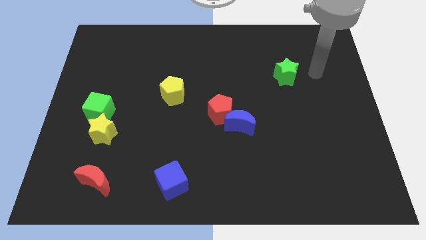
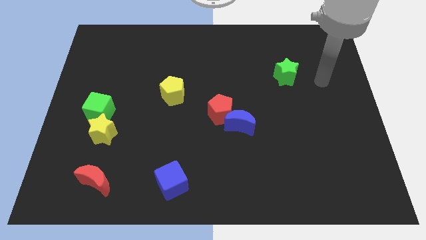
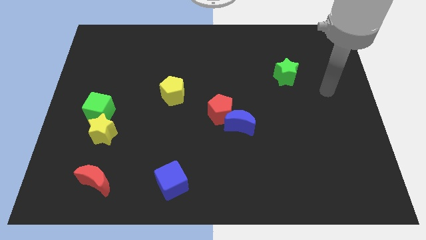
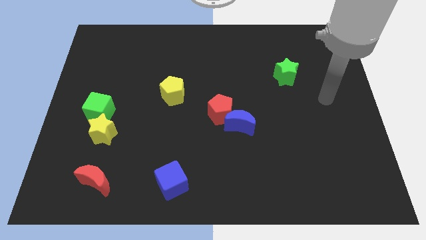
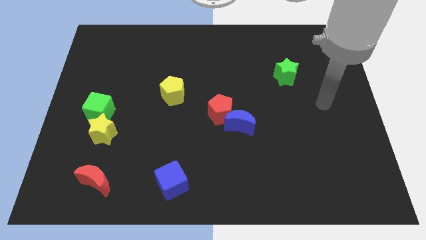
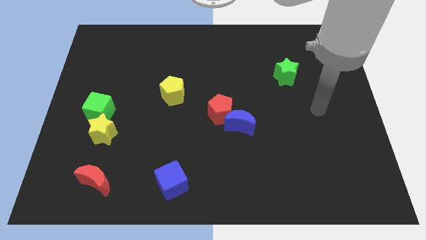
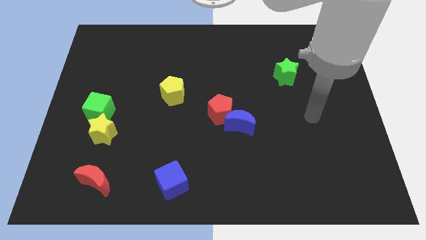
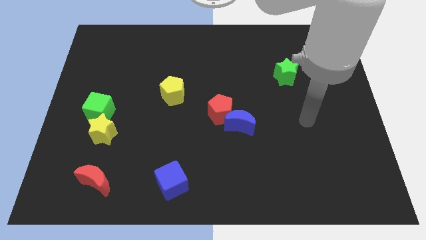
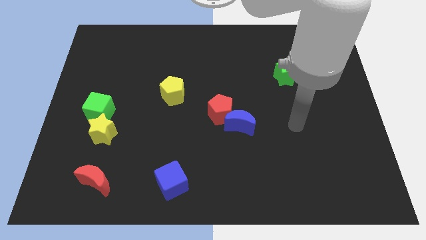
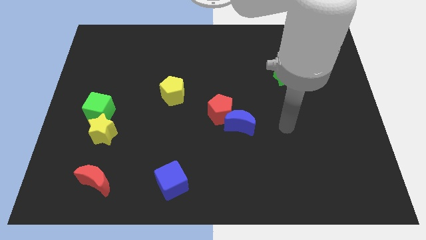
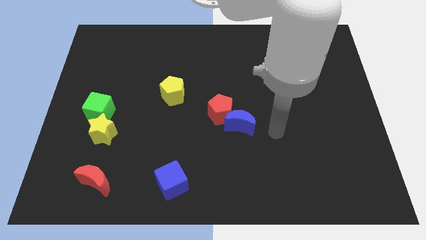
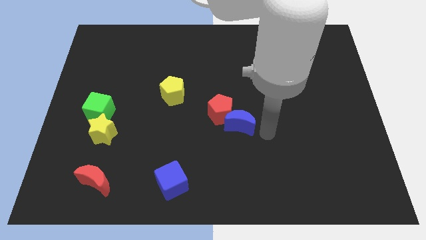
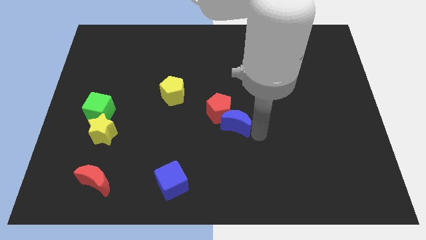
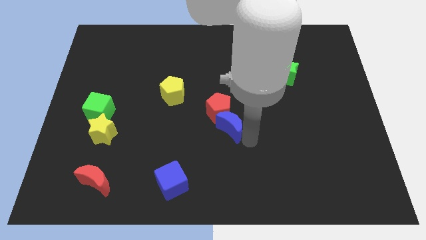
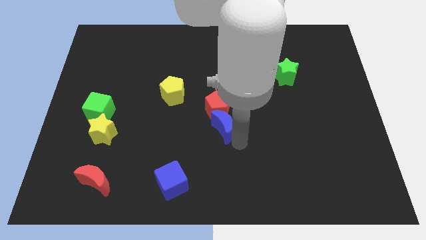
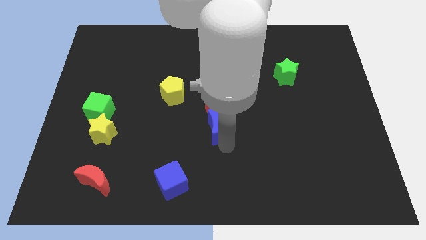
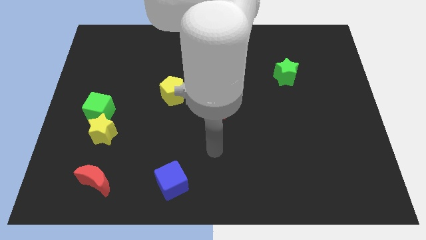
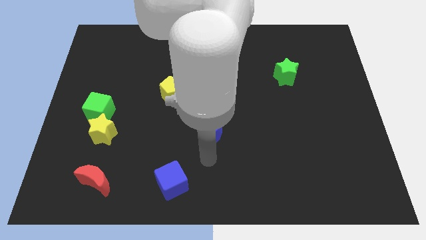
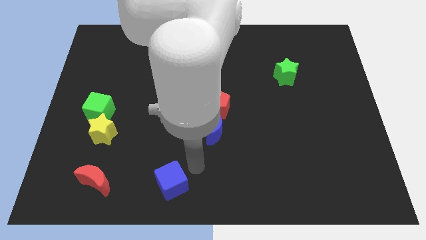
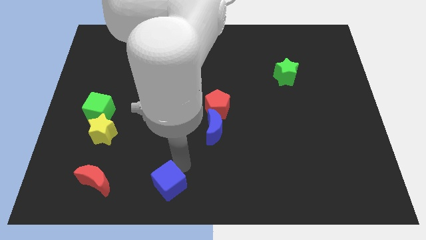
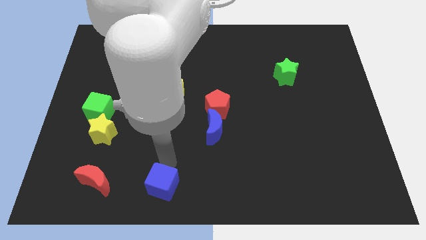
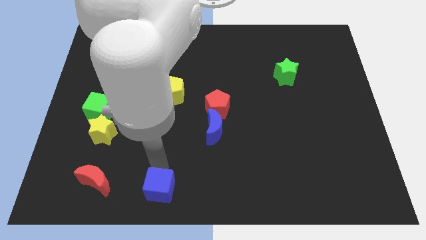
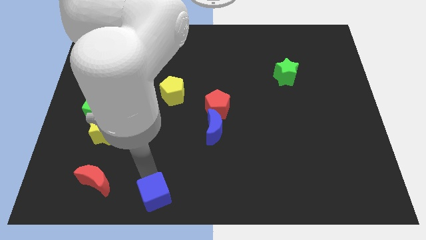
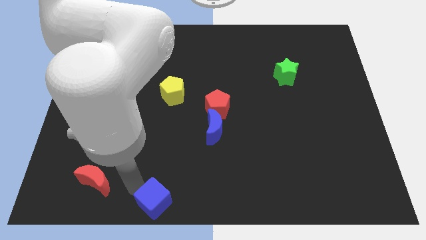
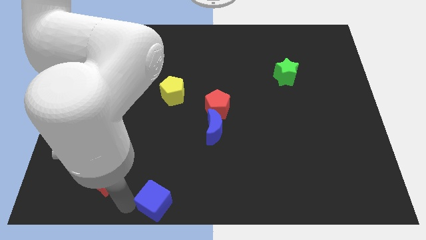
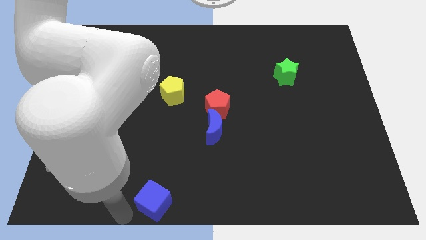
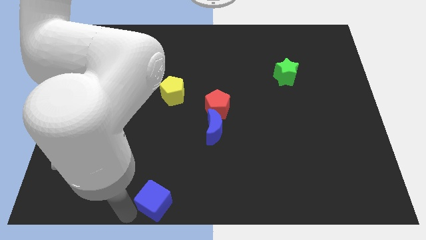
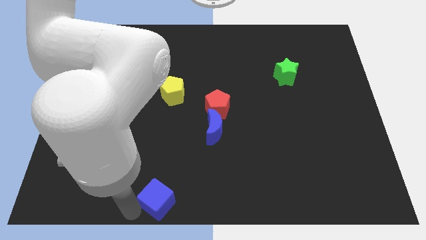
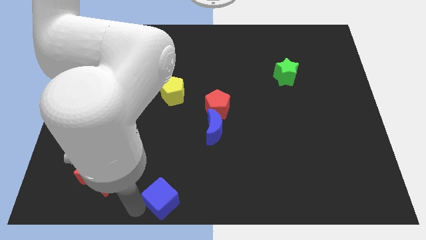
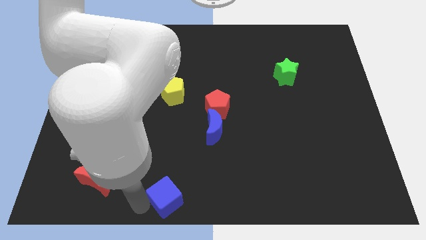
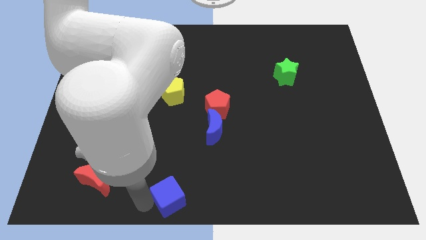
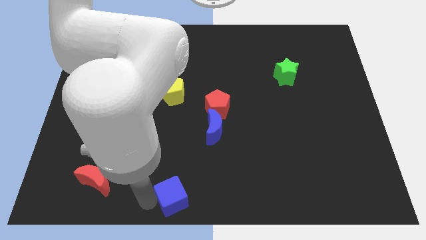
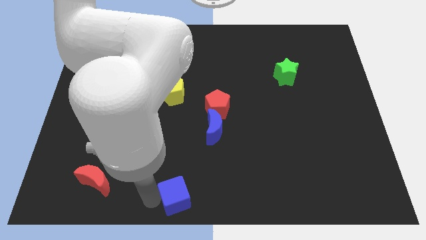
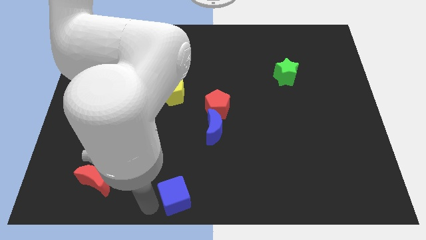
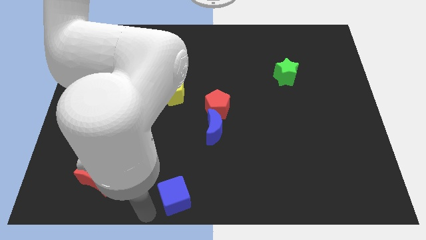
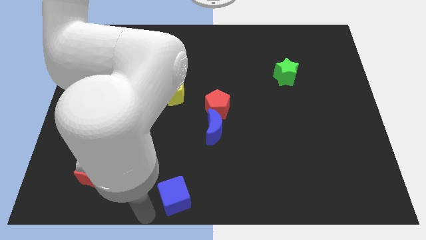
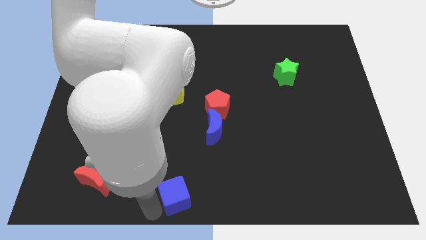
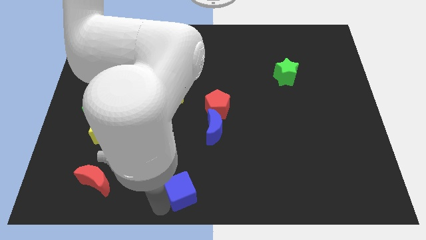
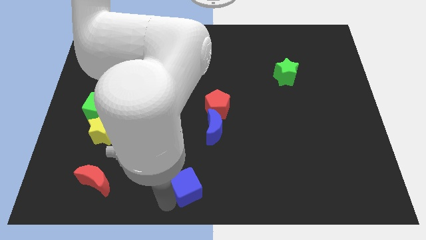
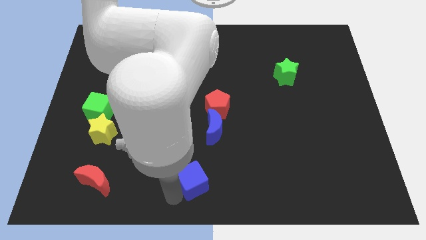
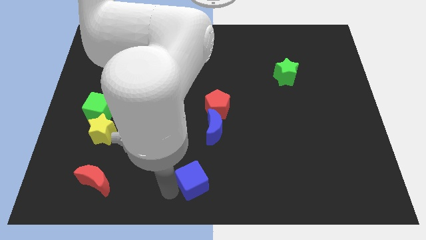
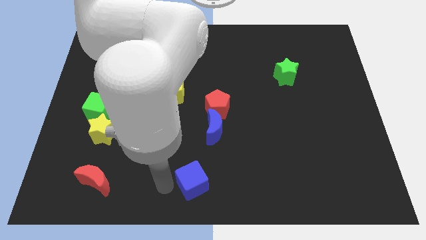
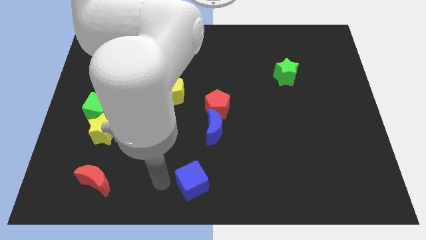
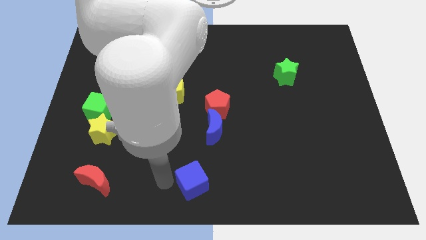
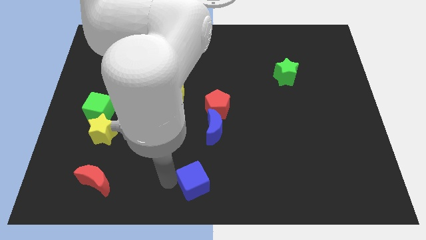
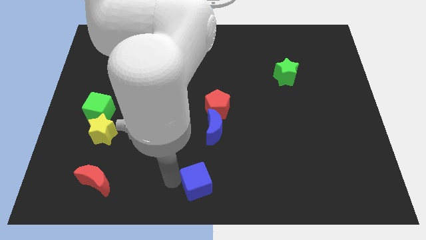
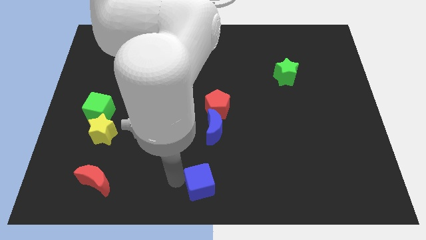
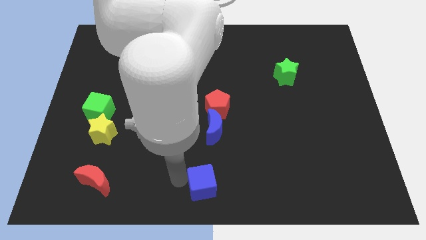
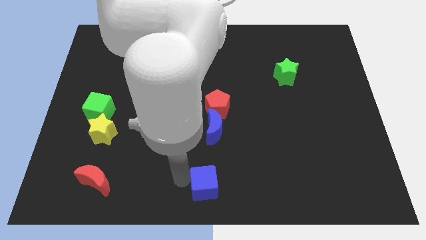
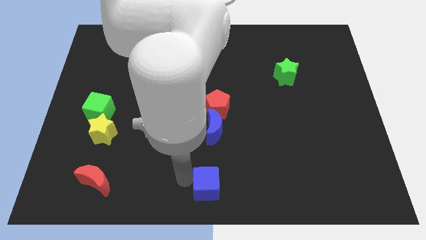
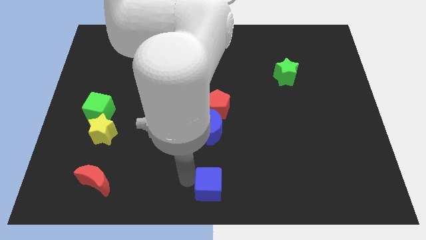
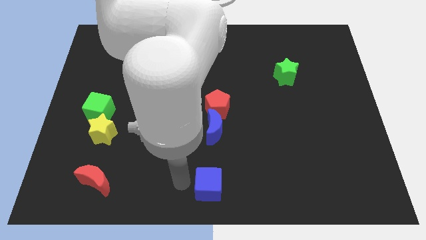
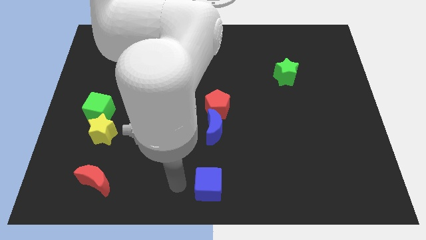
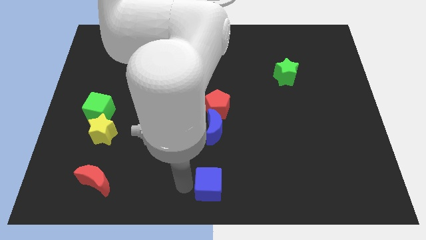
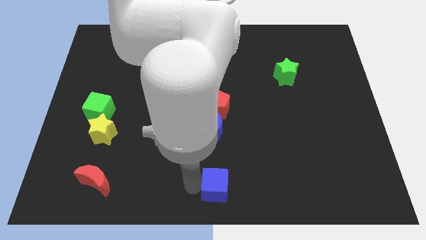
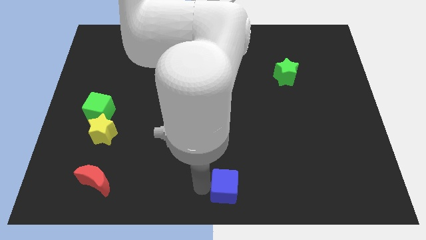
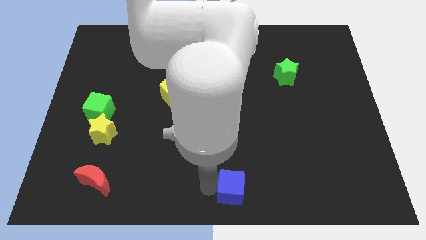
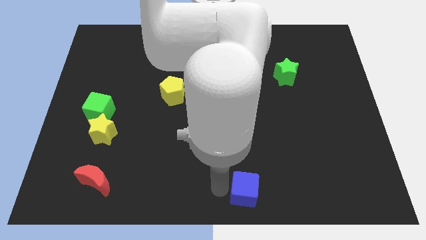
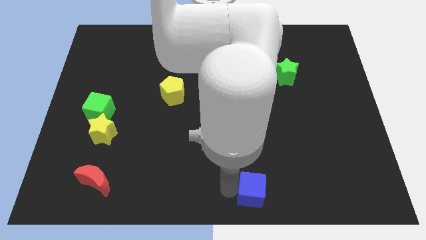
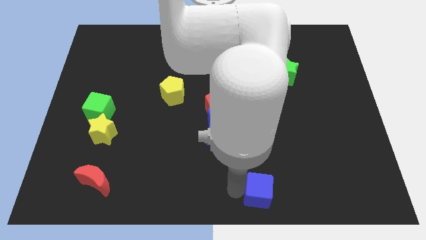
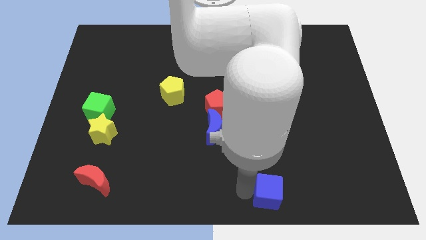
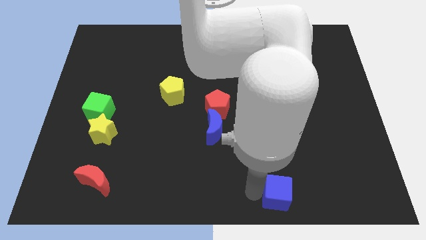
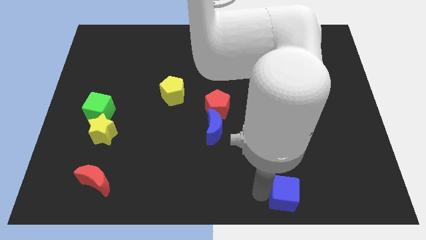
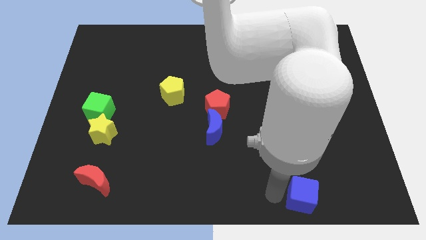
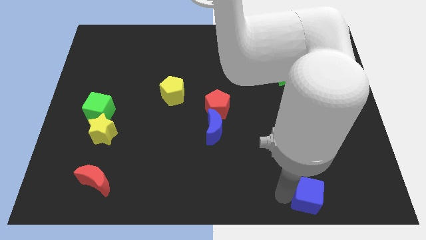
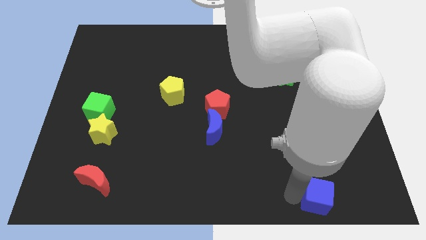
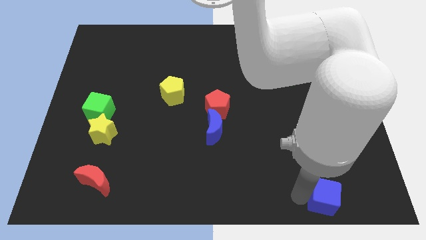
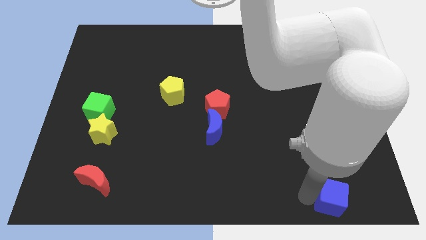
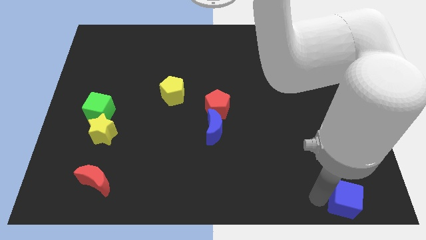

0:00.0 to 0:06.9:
move the blue cube to the bottom right

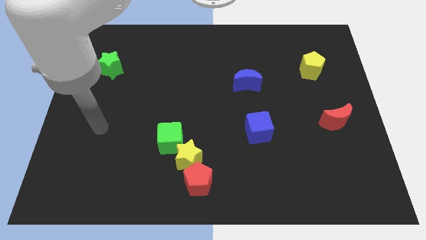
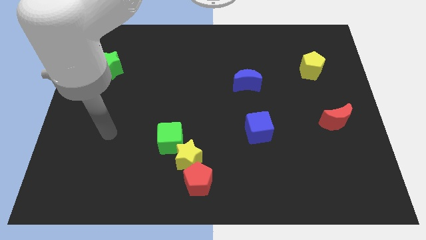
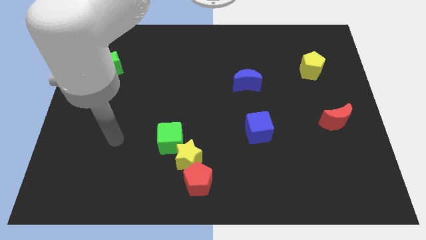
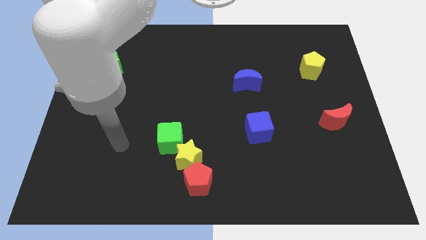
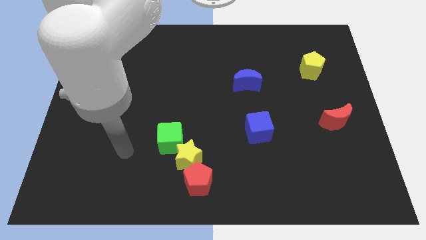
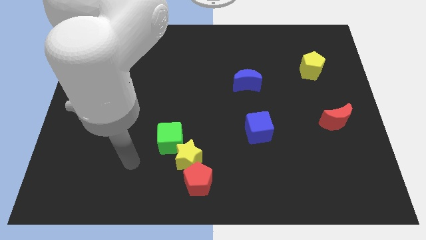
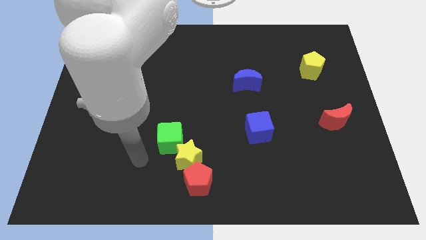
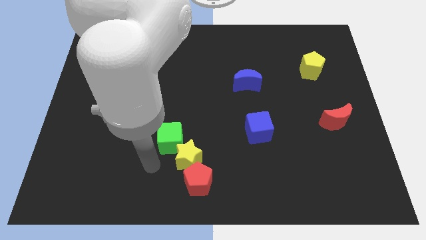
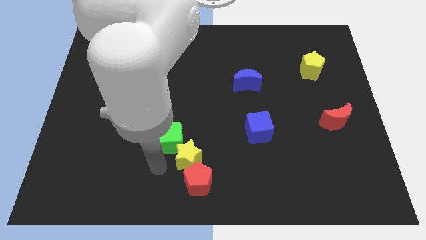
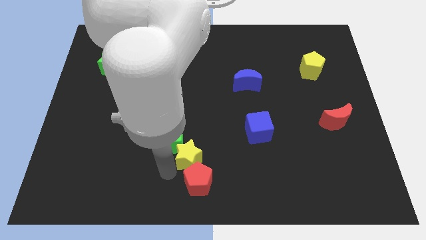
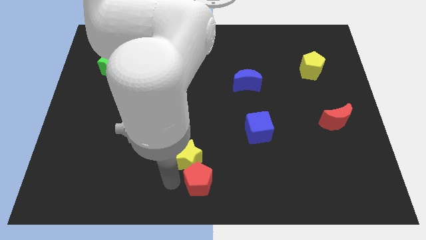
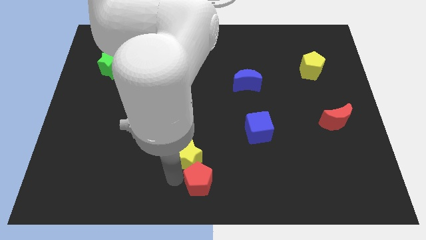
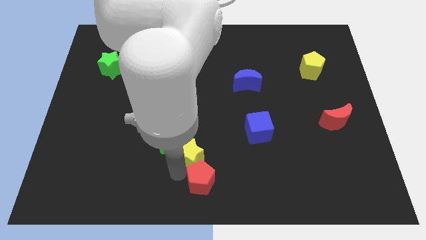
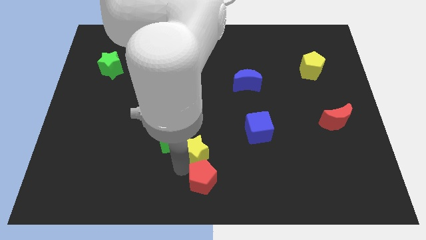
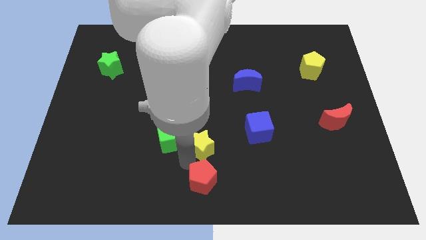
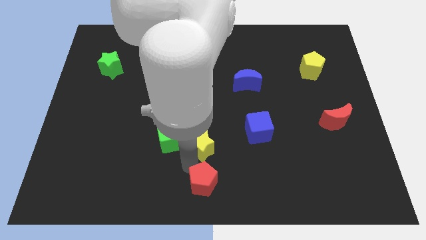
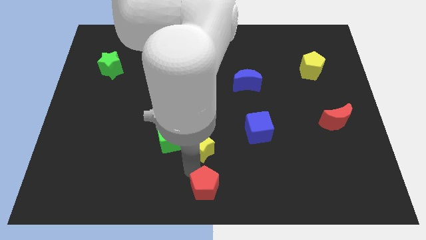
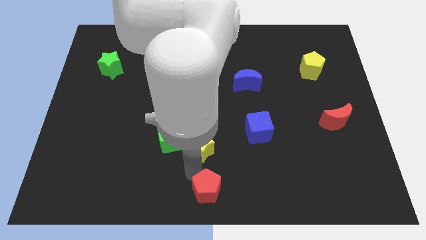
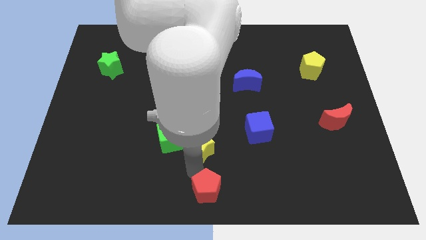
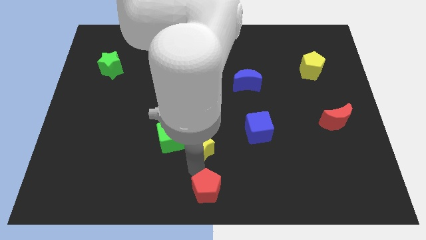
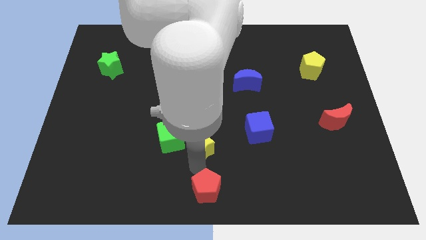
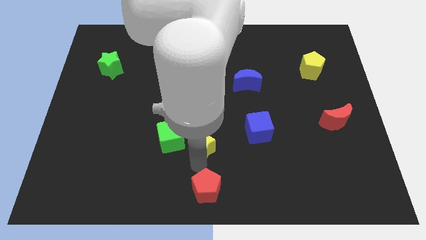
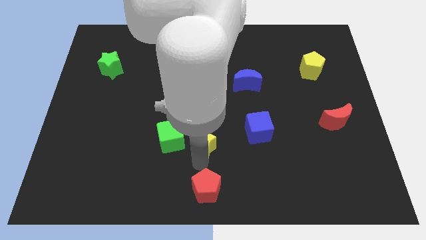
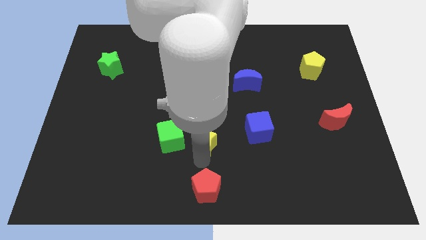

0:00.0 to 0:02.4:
slide the yellow star to the middle
